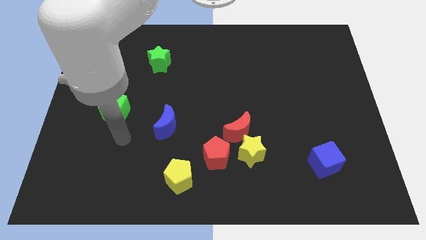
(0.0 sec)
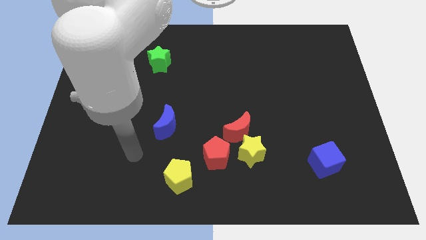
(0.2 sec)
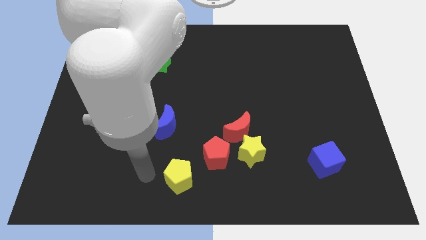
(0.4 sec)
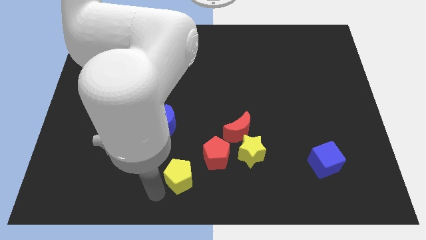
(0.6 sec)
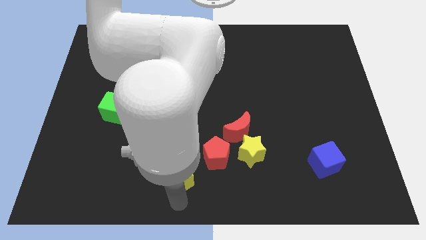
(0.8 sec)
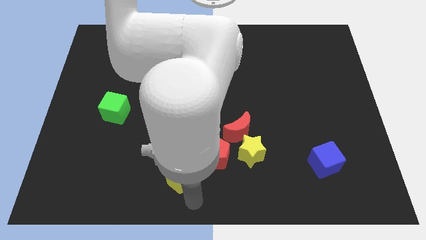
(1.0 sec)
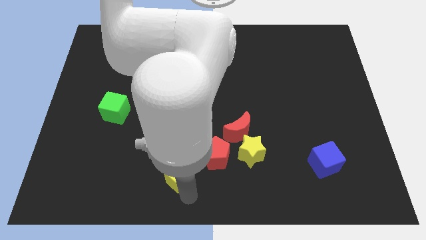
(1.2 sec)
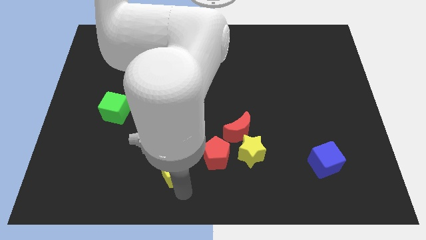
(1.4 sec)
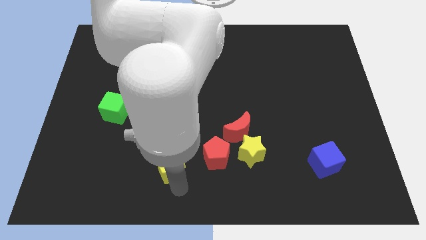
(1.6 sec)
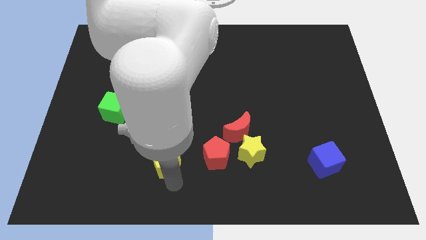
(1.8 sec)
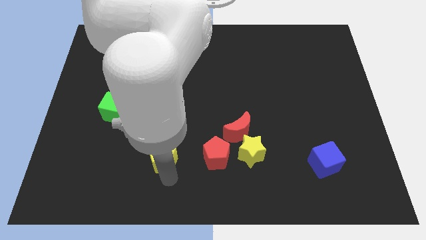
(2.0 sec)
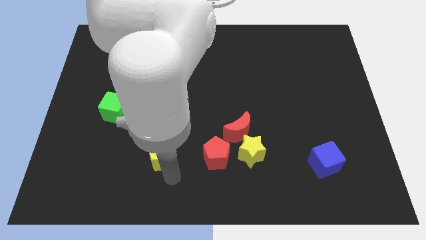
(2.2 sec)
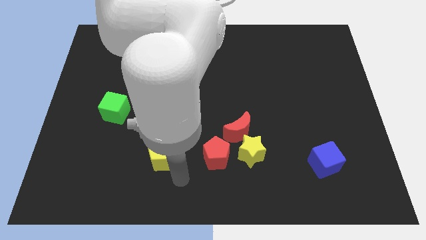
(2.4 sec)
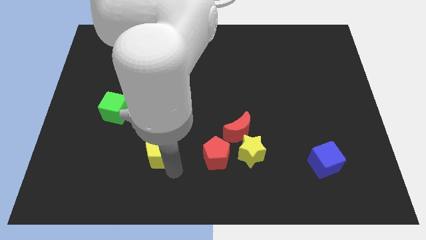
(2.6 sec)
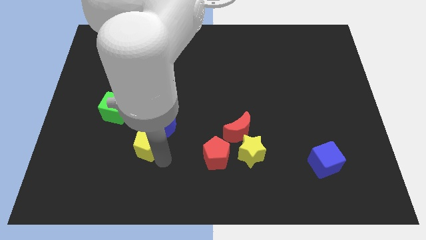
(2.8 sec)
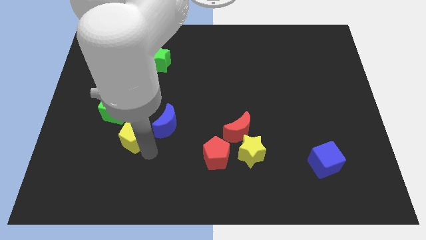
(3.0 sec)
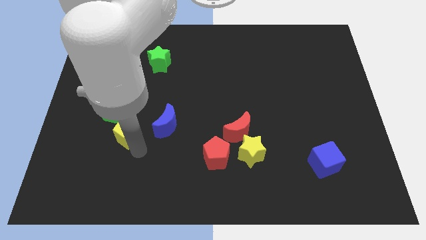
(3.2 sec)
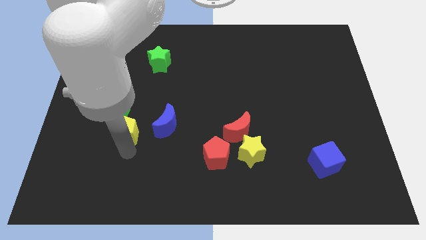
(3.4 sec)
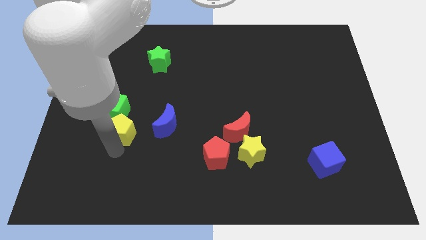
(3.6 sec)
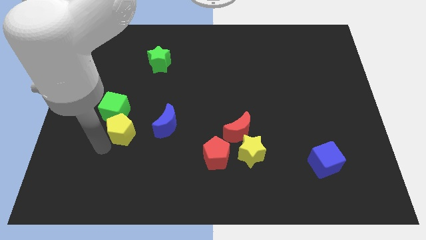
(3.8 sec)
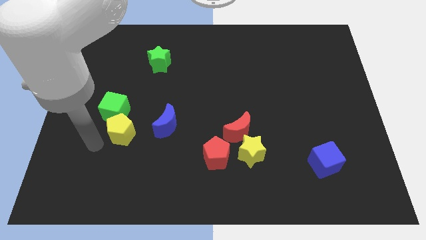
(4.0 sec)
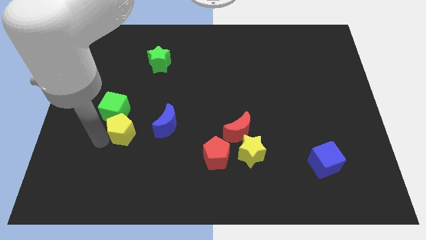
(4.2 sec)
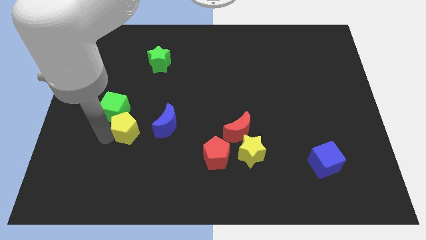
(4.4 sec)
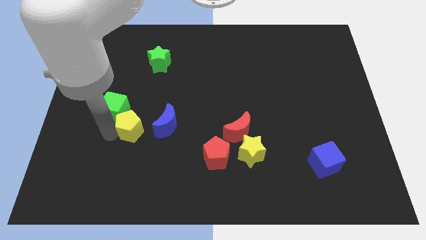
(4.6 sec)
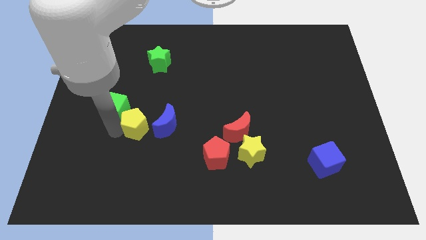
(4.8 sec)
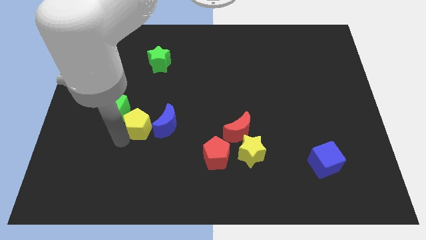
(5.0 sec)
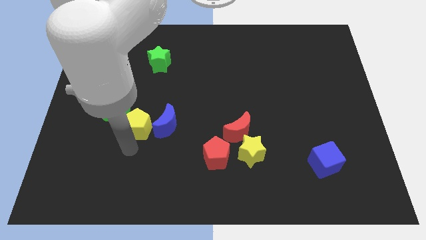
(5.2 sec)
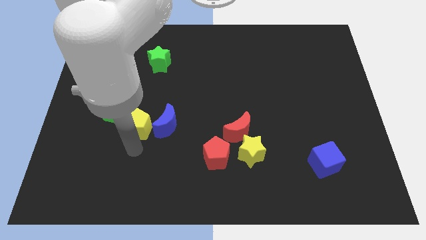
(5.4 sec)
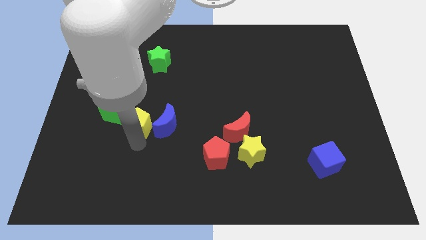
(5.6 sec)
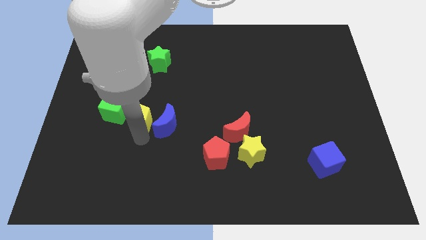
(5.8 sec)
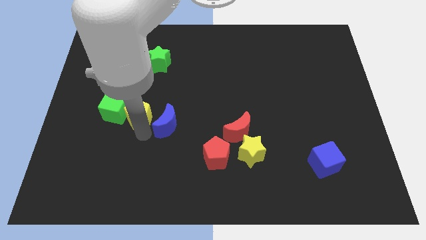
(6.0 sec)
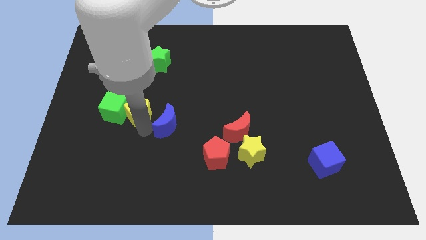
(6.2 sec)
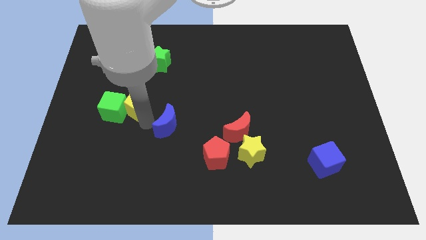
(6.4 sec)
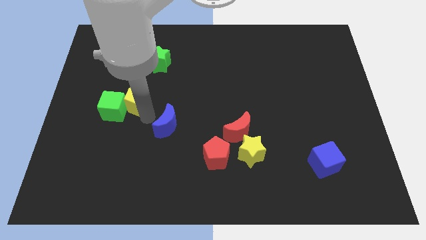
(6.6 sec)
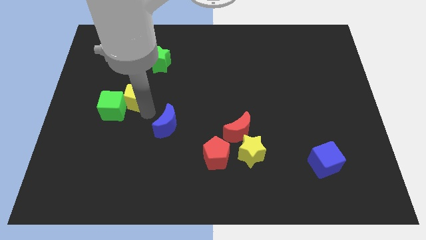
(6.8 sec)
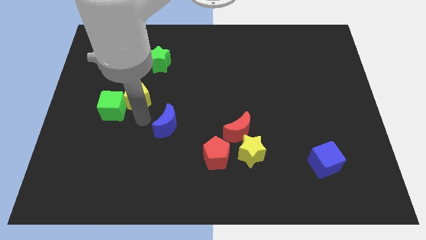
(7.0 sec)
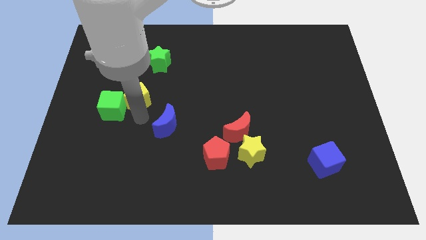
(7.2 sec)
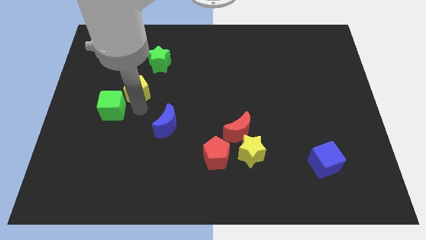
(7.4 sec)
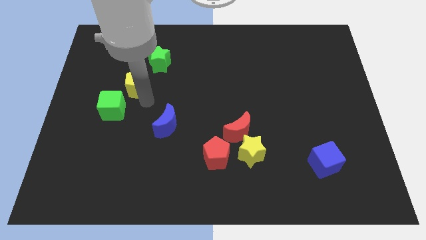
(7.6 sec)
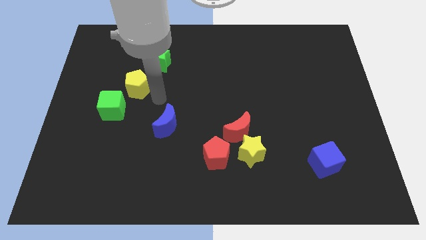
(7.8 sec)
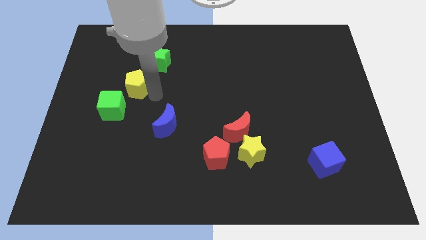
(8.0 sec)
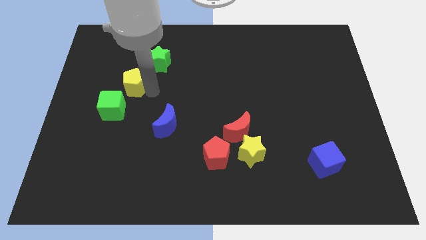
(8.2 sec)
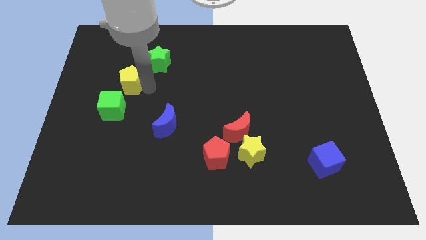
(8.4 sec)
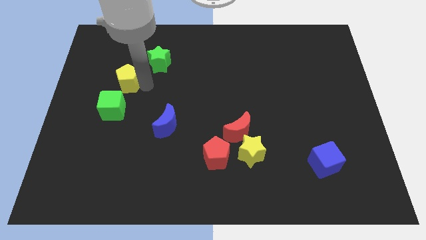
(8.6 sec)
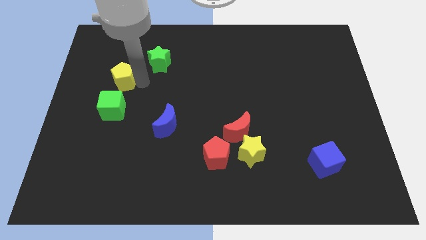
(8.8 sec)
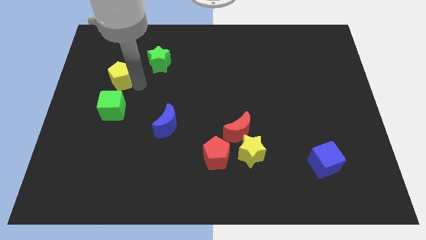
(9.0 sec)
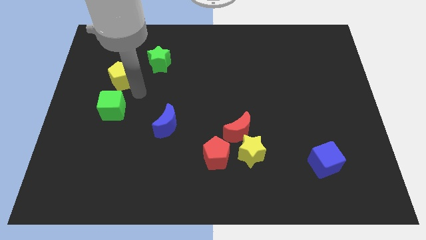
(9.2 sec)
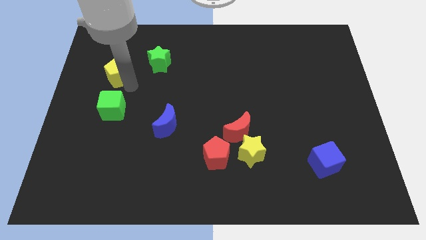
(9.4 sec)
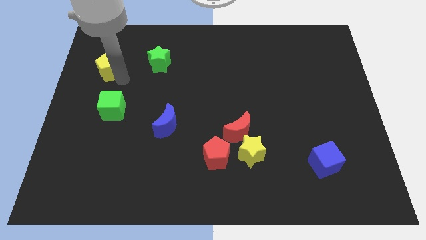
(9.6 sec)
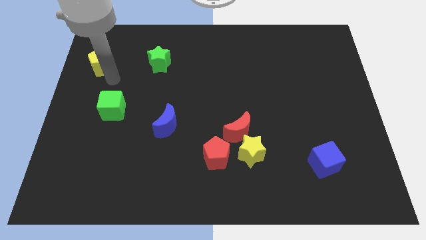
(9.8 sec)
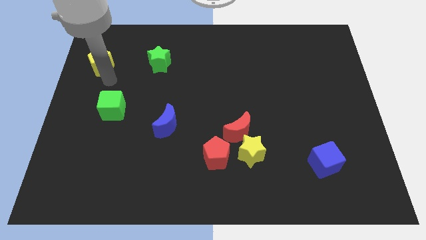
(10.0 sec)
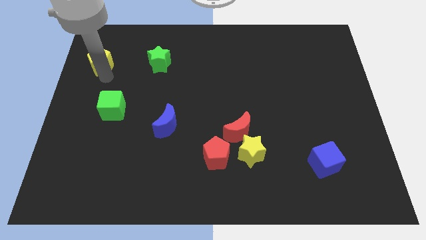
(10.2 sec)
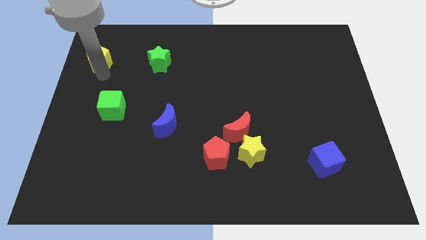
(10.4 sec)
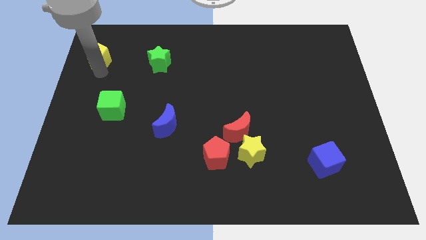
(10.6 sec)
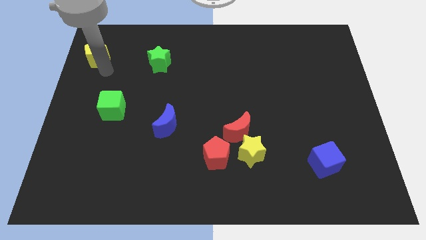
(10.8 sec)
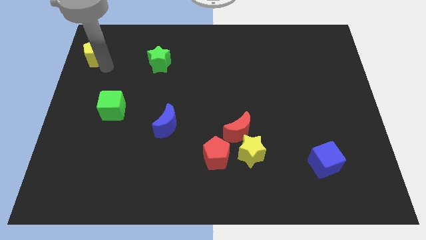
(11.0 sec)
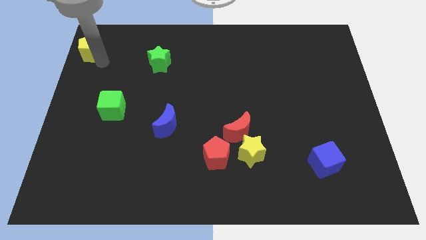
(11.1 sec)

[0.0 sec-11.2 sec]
move the yellow pentagon to the top left of the board

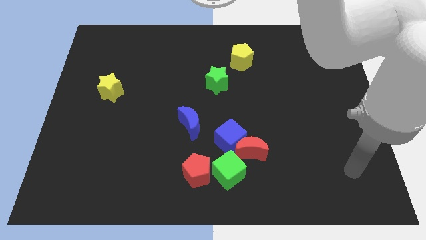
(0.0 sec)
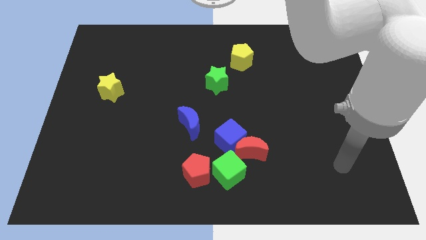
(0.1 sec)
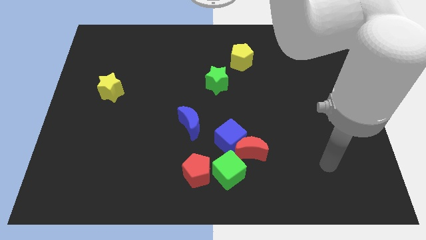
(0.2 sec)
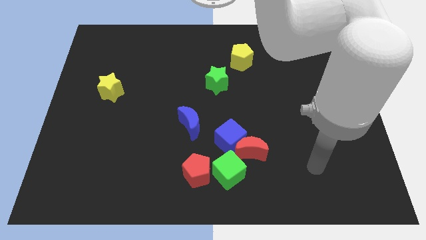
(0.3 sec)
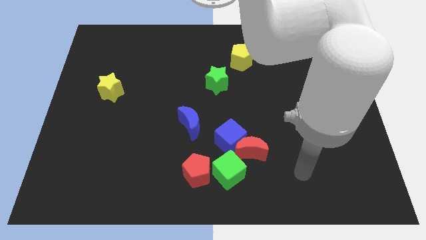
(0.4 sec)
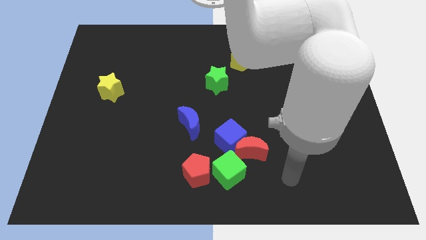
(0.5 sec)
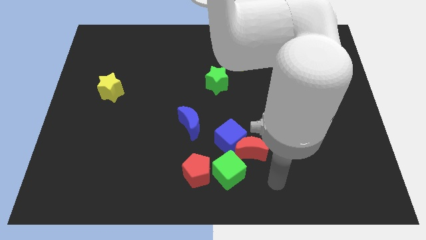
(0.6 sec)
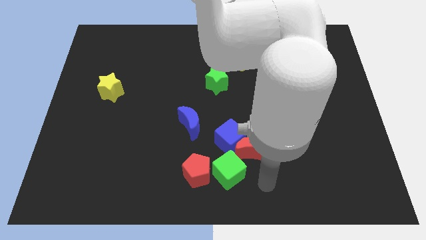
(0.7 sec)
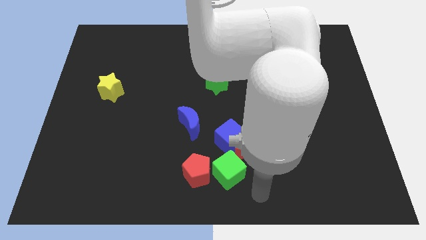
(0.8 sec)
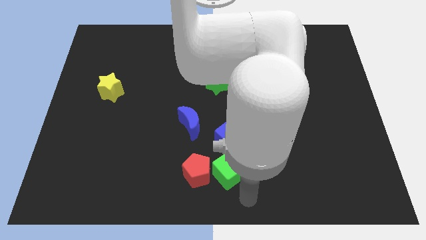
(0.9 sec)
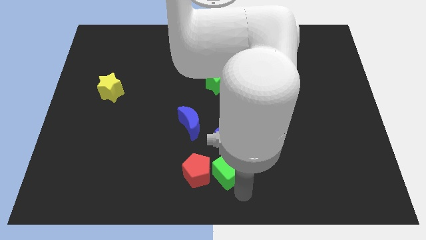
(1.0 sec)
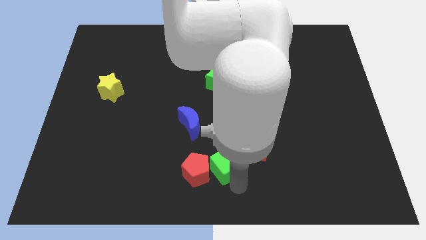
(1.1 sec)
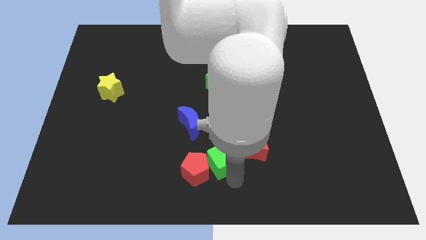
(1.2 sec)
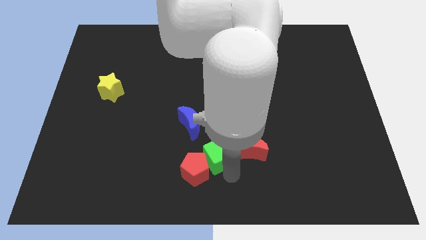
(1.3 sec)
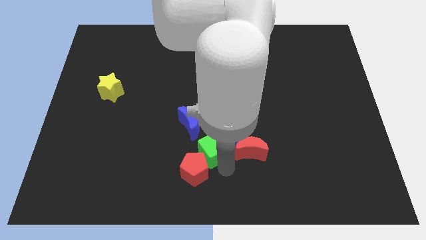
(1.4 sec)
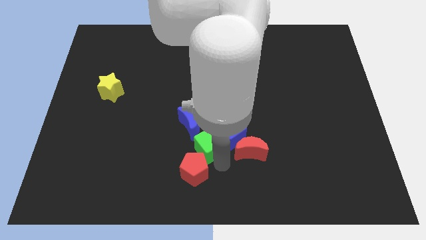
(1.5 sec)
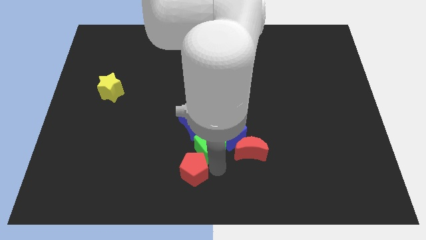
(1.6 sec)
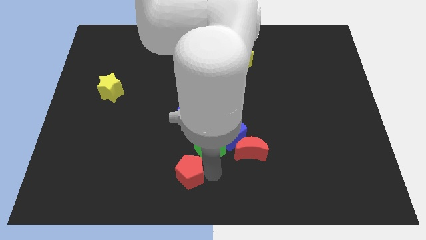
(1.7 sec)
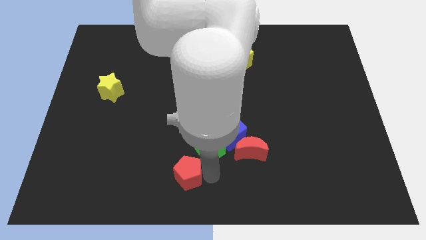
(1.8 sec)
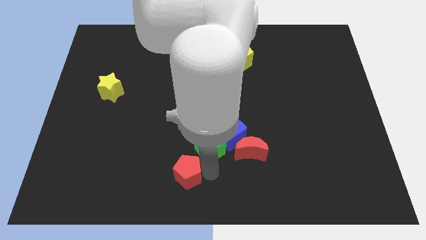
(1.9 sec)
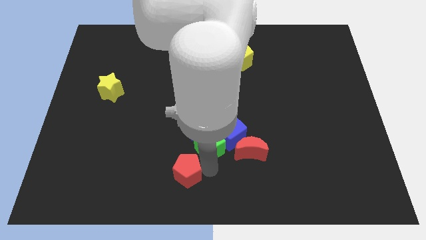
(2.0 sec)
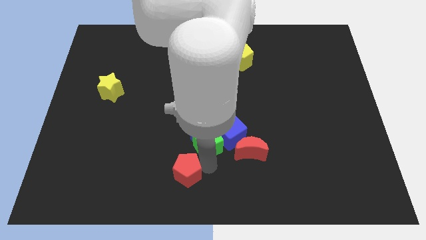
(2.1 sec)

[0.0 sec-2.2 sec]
put the green cube to the middle
